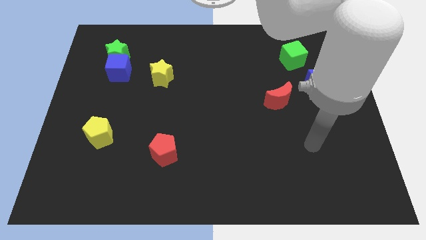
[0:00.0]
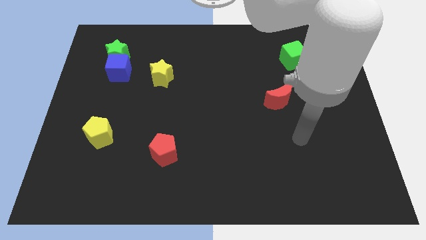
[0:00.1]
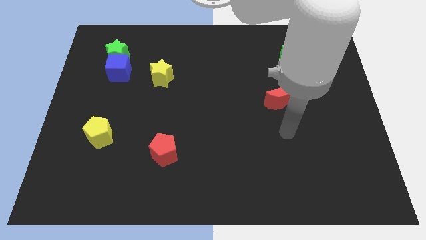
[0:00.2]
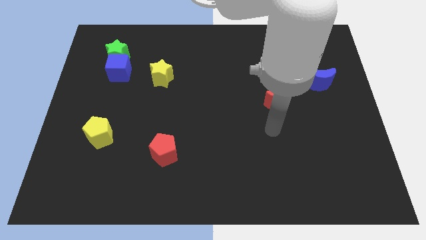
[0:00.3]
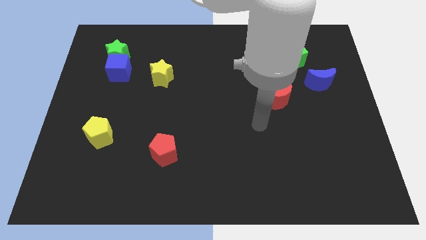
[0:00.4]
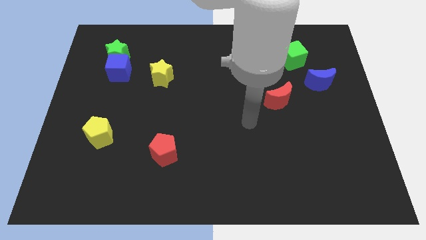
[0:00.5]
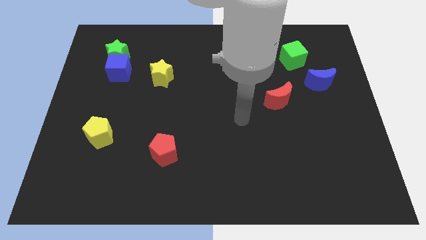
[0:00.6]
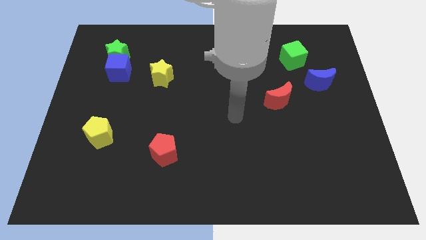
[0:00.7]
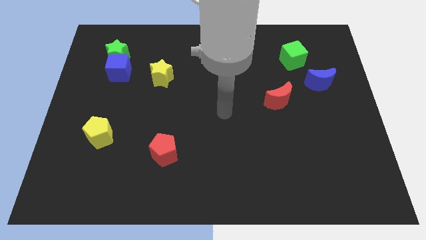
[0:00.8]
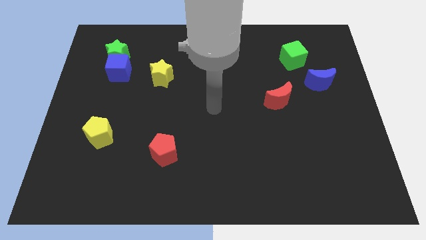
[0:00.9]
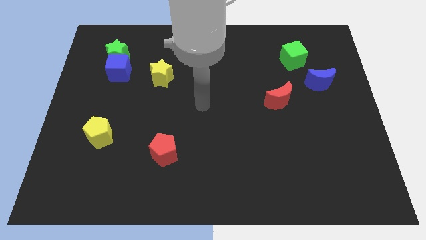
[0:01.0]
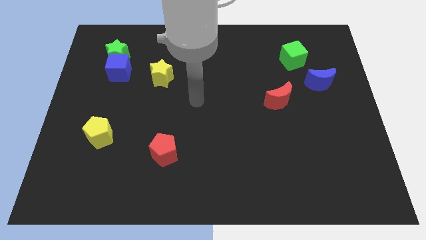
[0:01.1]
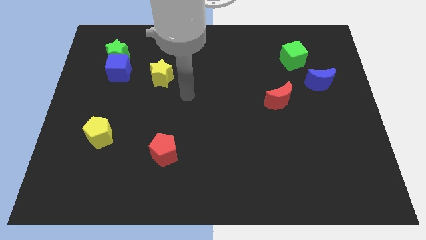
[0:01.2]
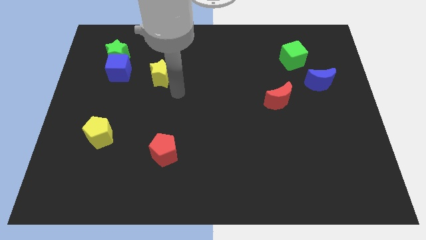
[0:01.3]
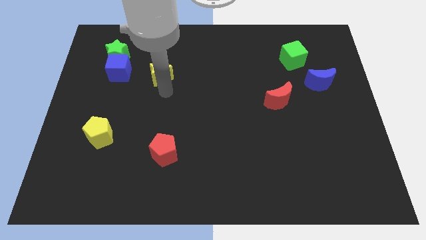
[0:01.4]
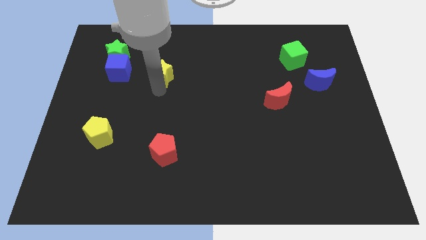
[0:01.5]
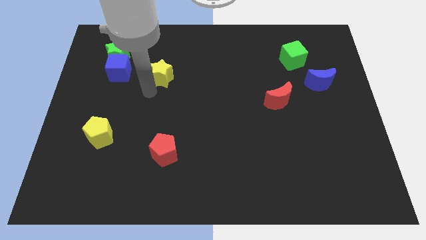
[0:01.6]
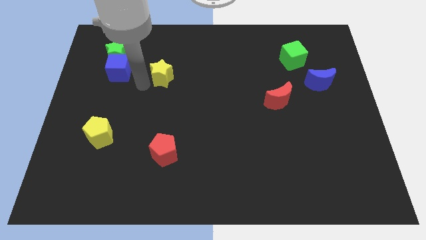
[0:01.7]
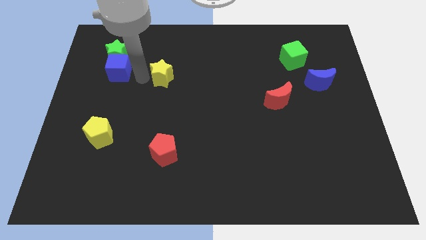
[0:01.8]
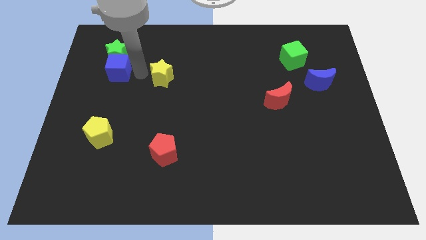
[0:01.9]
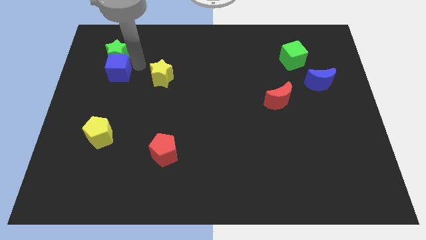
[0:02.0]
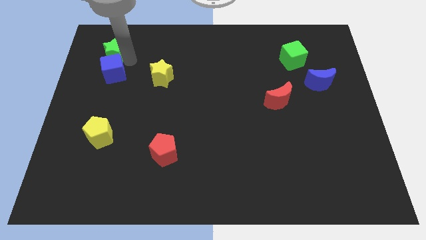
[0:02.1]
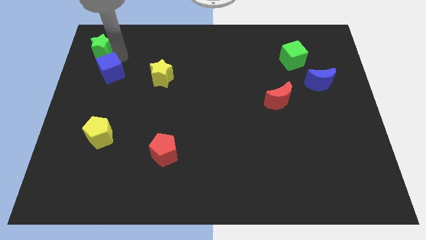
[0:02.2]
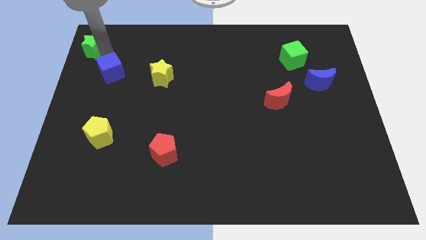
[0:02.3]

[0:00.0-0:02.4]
move the blue cube away from the green star

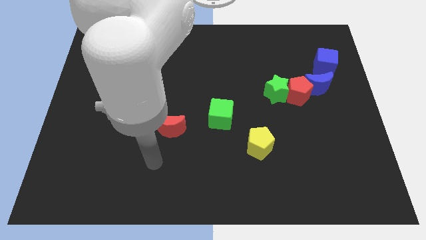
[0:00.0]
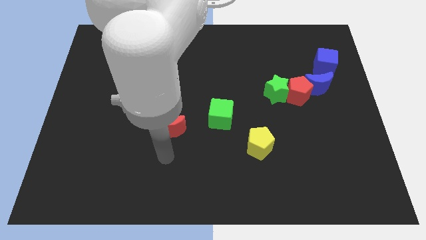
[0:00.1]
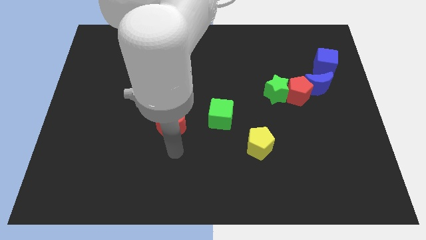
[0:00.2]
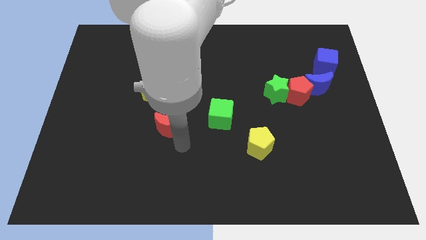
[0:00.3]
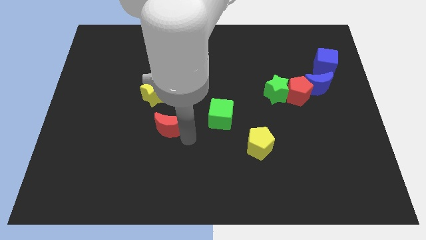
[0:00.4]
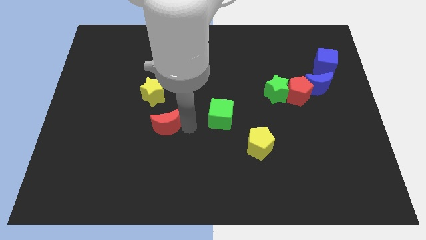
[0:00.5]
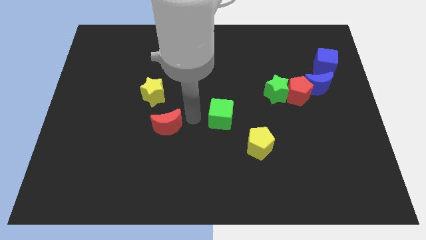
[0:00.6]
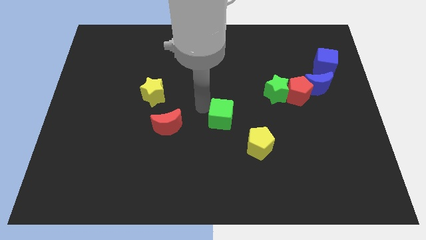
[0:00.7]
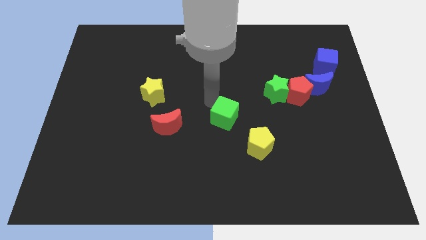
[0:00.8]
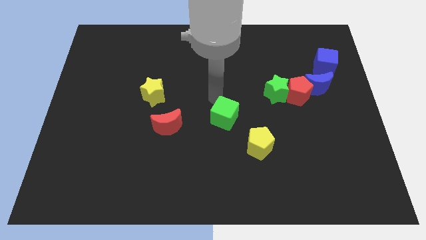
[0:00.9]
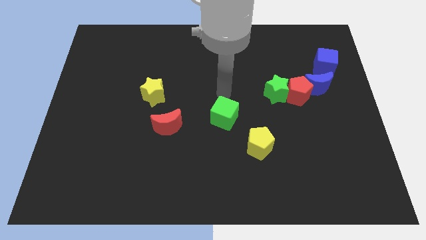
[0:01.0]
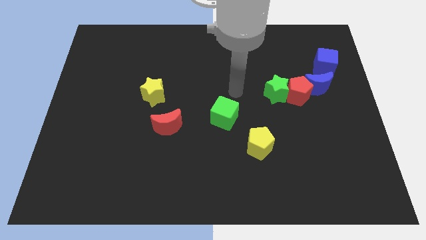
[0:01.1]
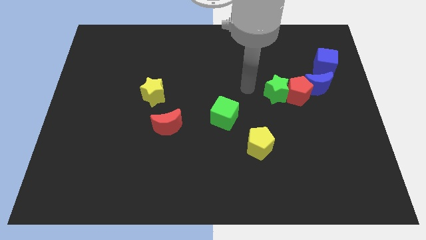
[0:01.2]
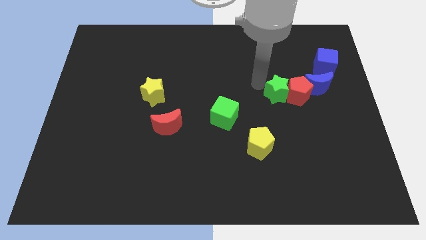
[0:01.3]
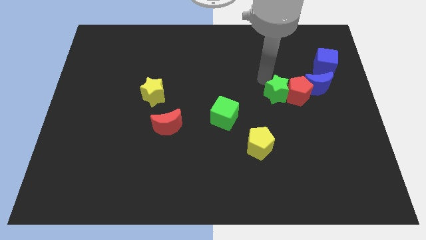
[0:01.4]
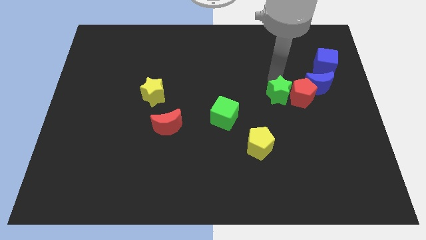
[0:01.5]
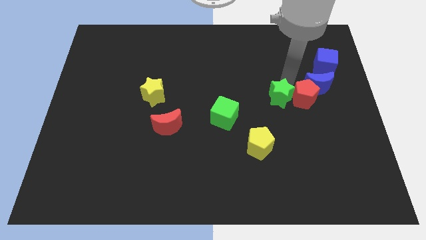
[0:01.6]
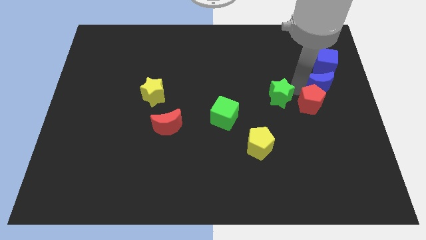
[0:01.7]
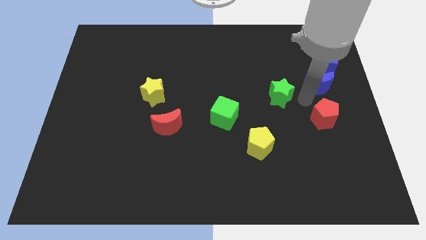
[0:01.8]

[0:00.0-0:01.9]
pull the green star apart from the red pentagon

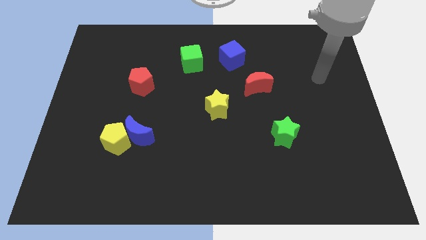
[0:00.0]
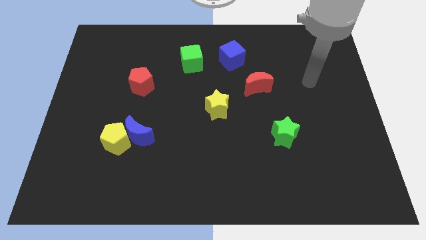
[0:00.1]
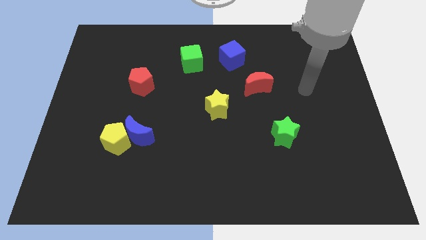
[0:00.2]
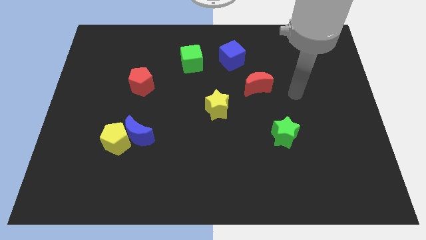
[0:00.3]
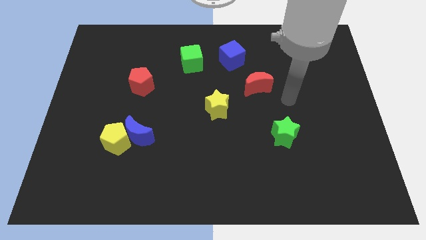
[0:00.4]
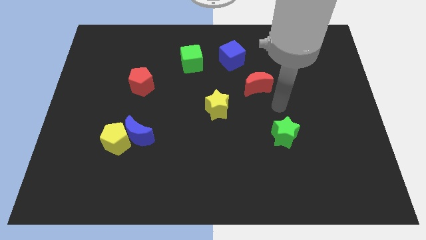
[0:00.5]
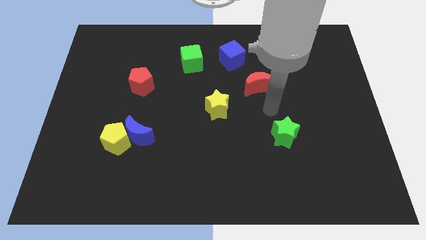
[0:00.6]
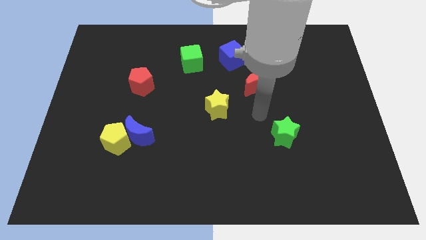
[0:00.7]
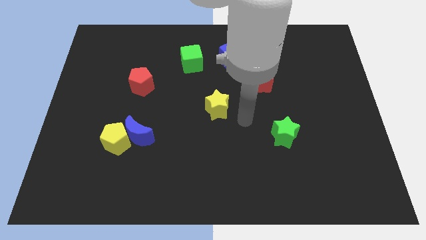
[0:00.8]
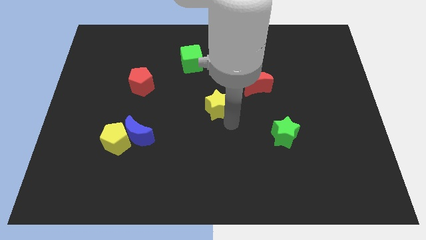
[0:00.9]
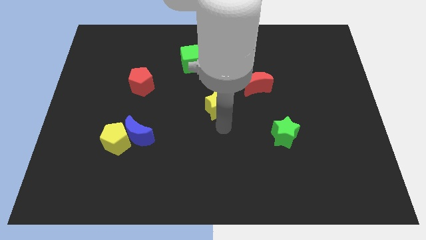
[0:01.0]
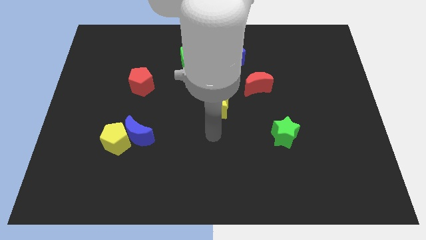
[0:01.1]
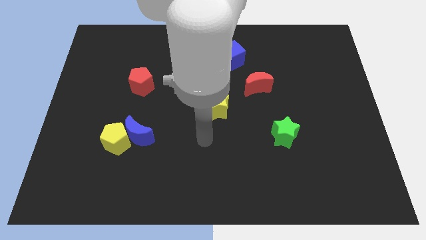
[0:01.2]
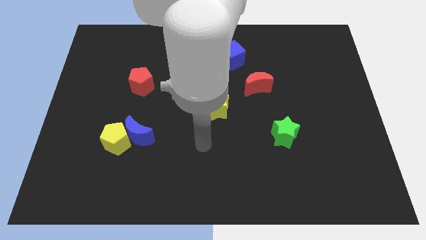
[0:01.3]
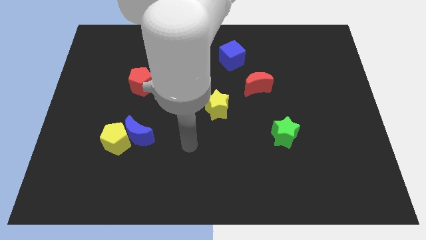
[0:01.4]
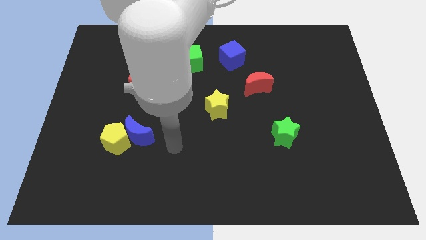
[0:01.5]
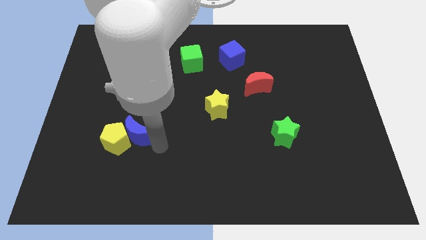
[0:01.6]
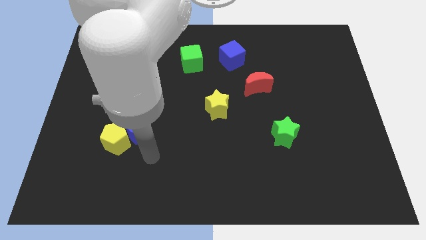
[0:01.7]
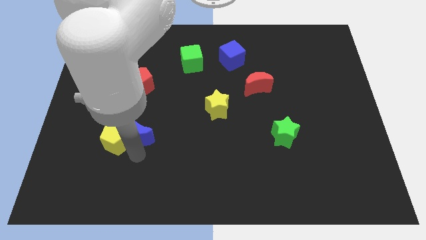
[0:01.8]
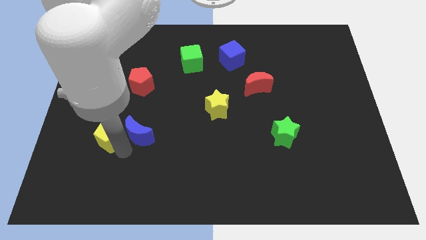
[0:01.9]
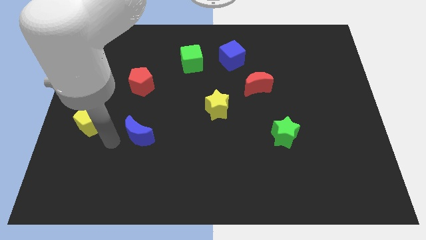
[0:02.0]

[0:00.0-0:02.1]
move the blue moon away from the yellow pentagon

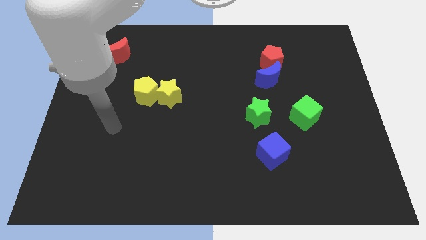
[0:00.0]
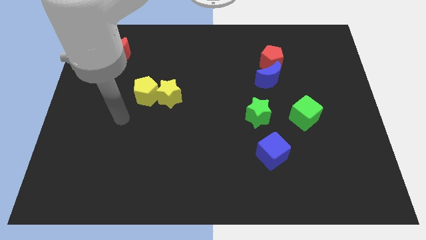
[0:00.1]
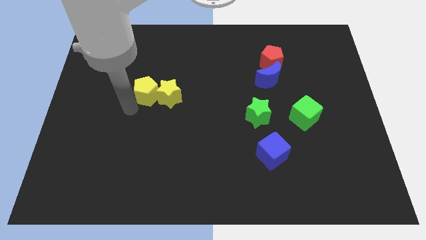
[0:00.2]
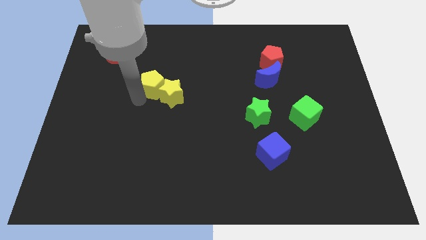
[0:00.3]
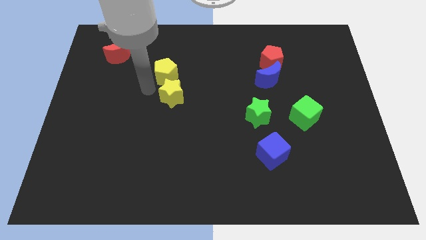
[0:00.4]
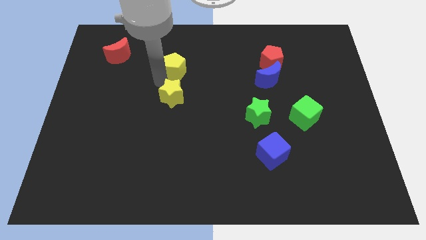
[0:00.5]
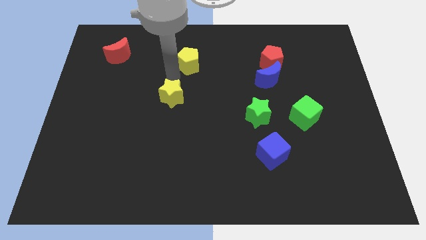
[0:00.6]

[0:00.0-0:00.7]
move the yellow star away from the yellow pentagon

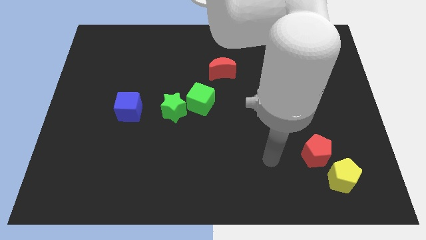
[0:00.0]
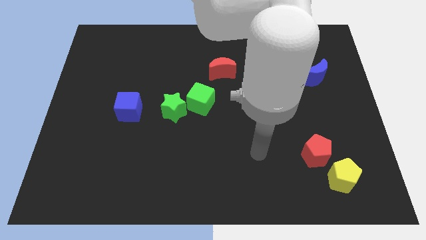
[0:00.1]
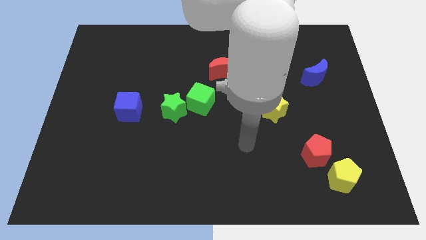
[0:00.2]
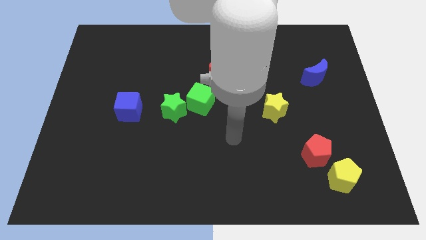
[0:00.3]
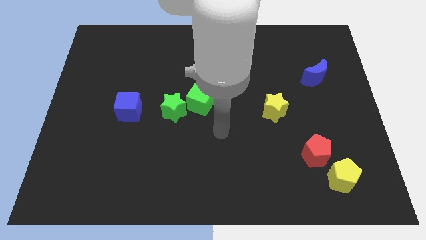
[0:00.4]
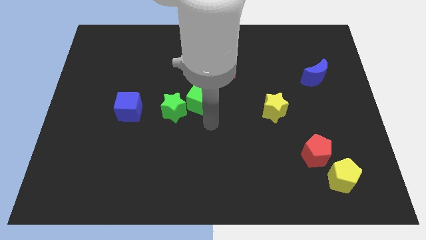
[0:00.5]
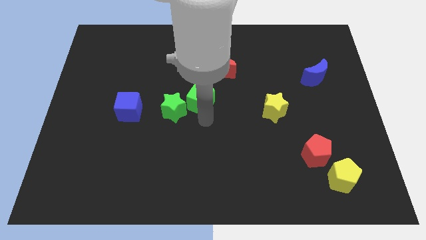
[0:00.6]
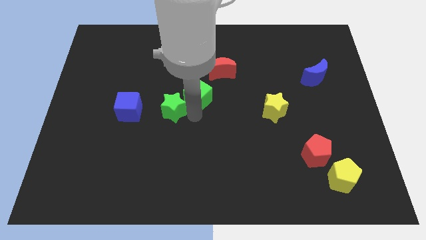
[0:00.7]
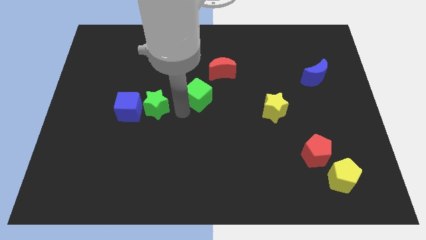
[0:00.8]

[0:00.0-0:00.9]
separate the green cube from the green star

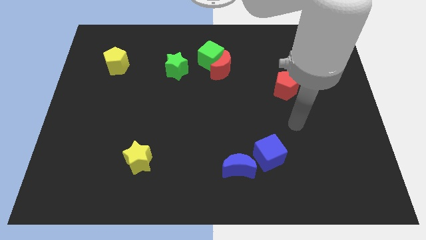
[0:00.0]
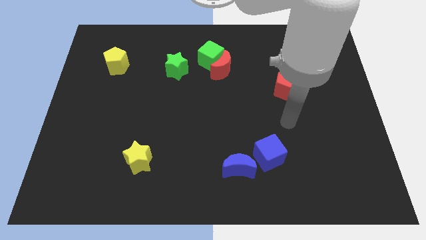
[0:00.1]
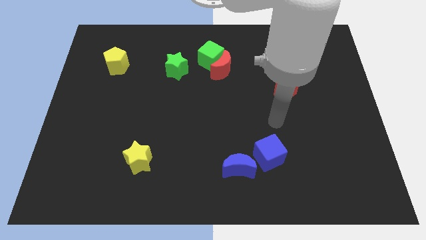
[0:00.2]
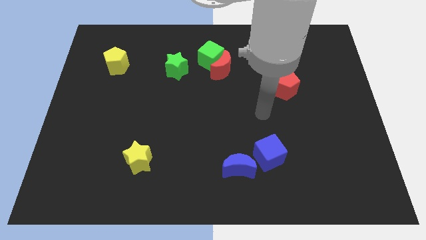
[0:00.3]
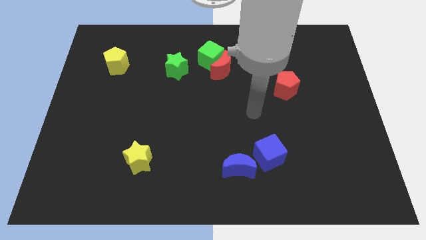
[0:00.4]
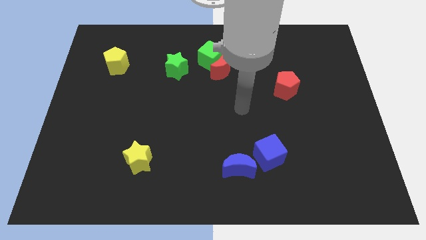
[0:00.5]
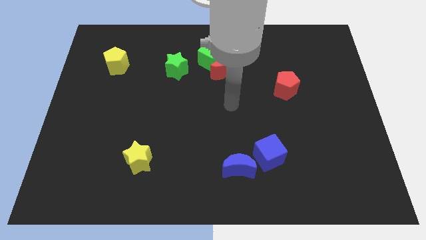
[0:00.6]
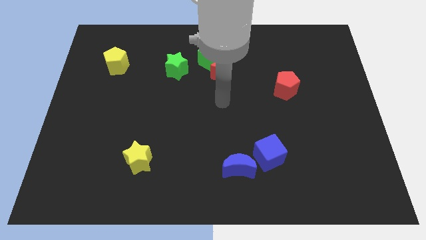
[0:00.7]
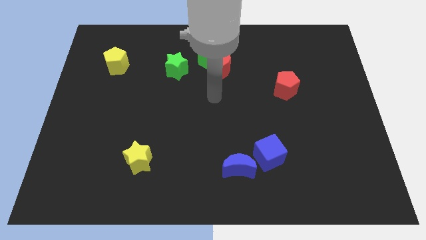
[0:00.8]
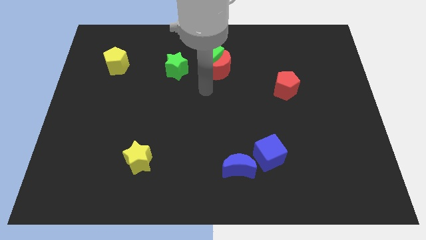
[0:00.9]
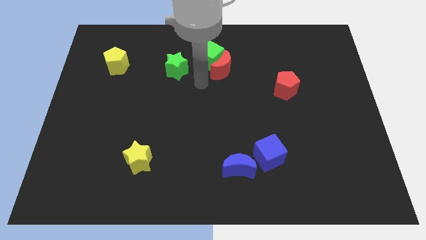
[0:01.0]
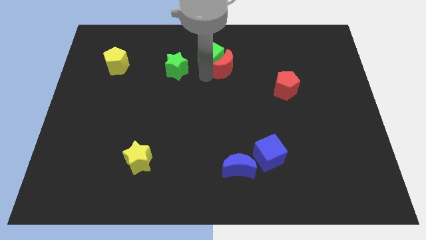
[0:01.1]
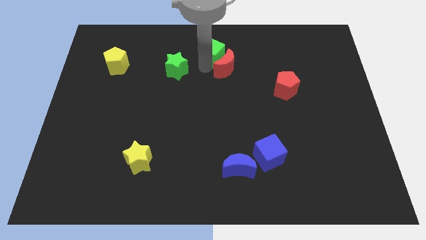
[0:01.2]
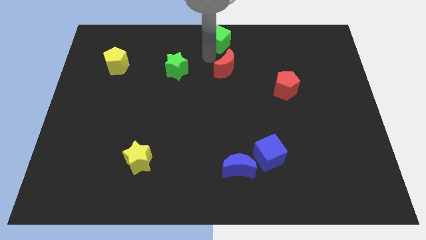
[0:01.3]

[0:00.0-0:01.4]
separate the red moon from the green cube
